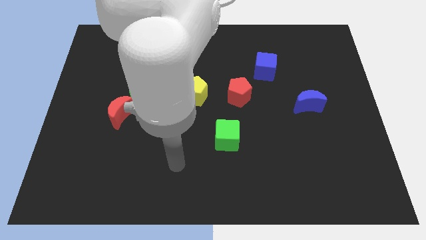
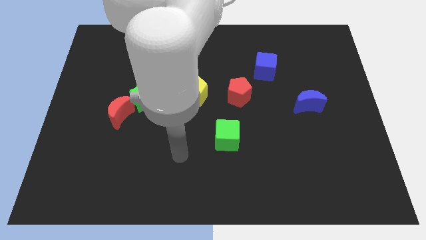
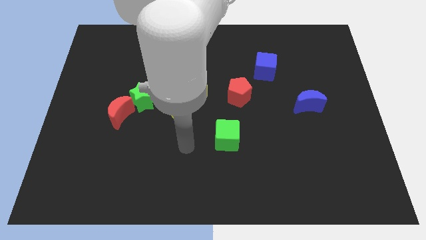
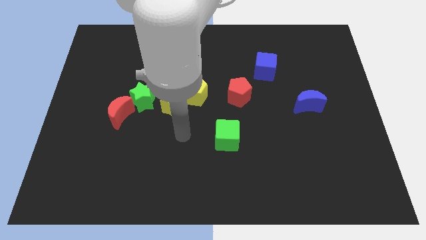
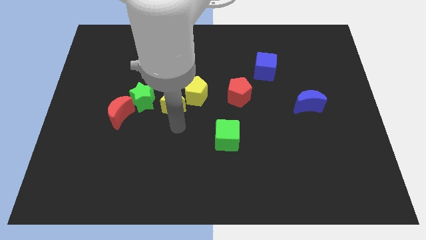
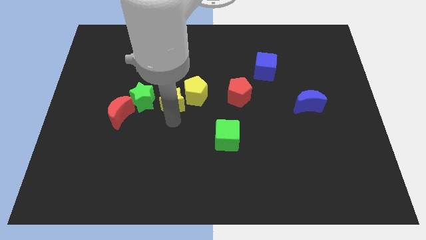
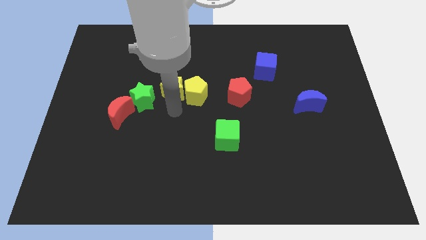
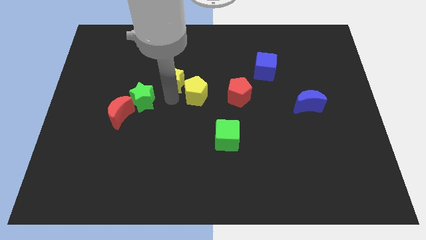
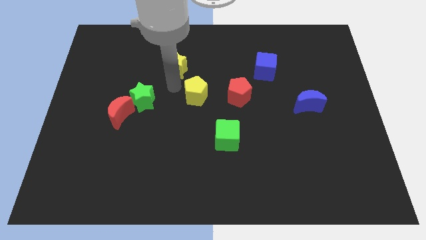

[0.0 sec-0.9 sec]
separate the yellow pentagon from the yellow star

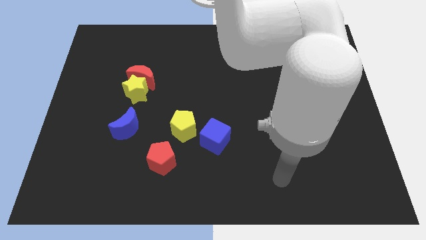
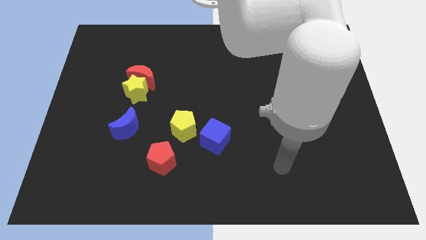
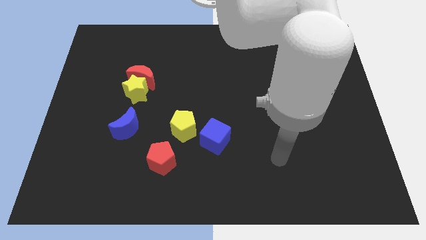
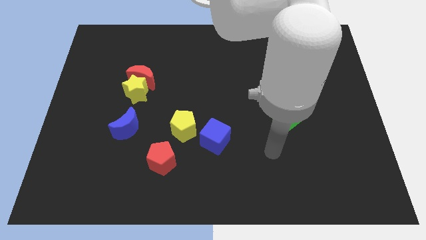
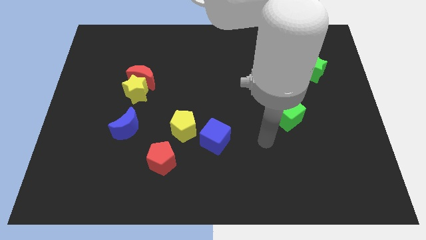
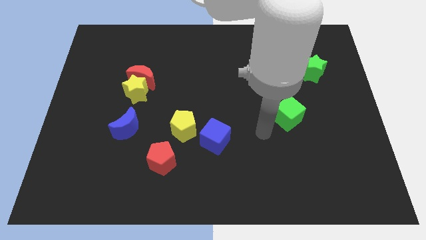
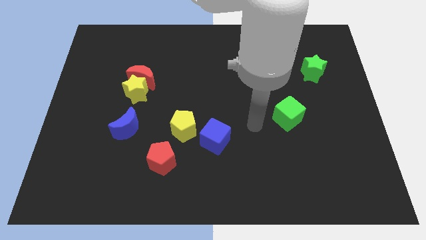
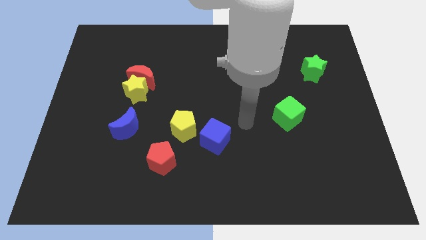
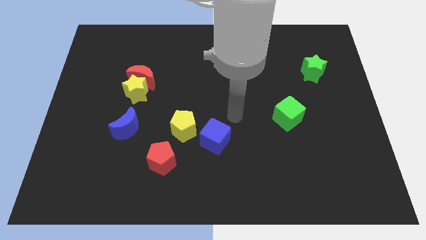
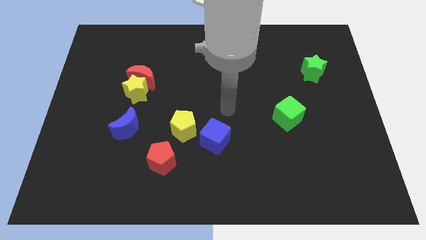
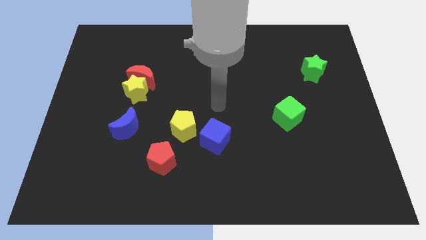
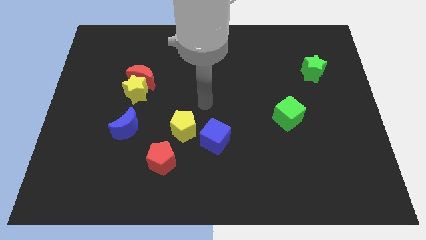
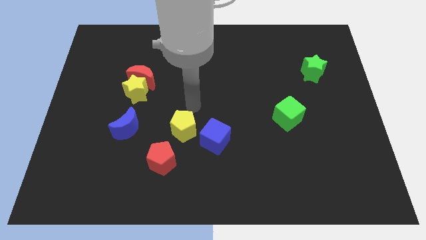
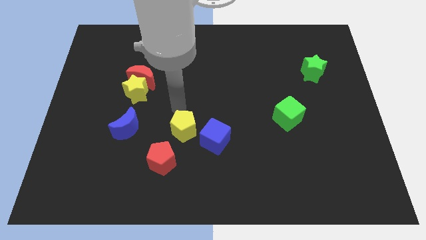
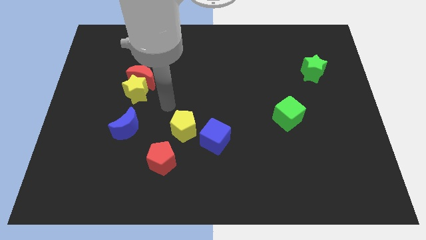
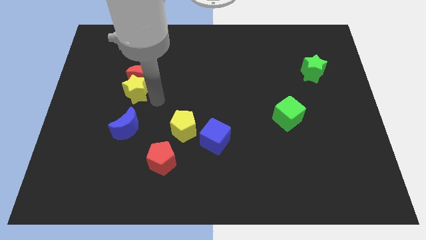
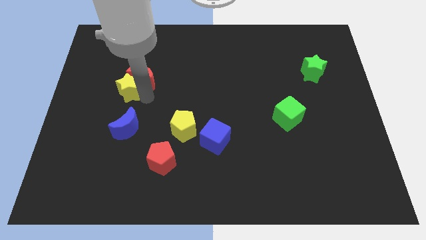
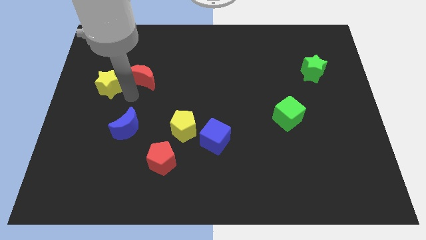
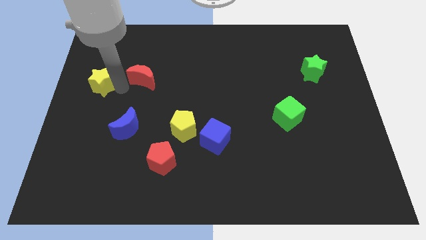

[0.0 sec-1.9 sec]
pull the red moon apart from the yellow star

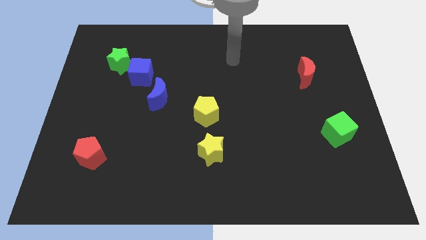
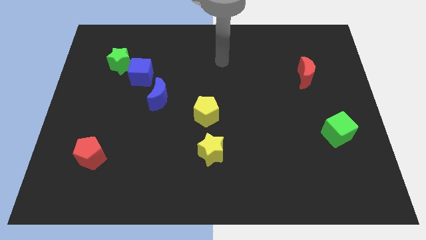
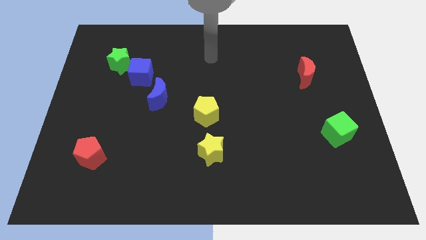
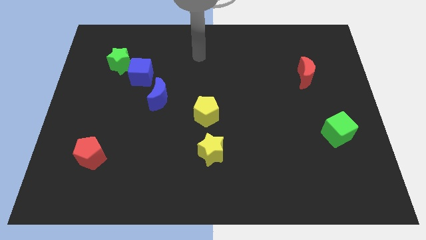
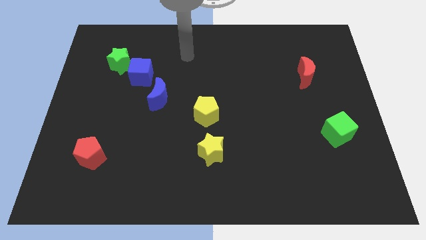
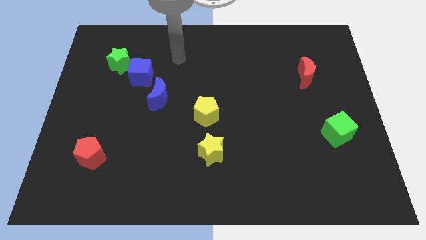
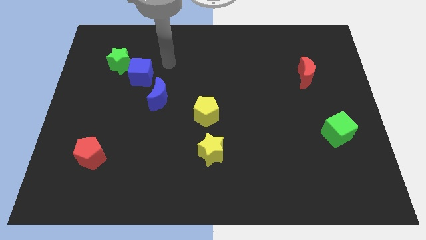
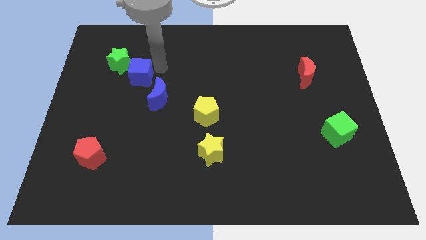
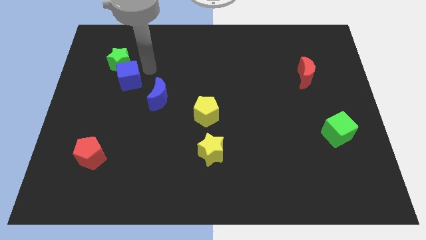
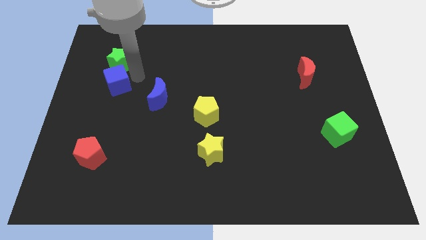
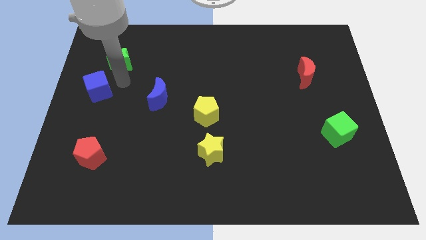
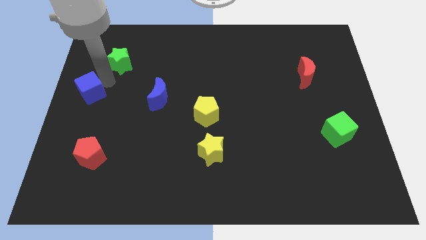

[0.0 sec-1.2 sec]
move the green star away from the blue cube

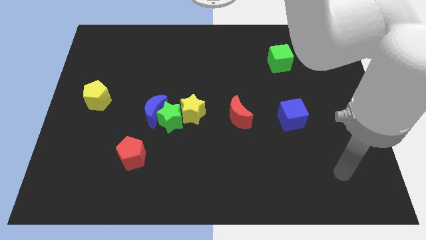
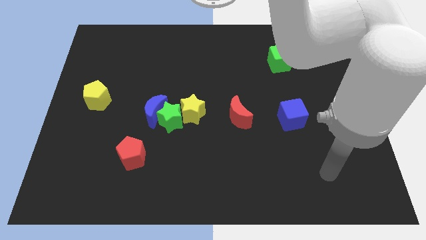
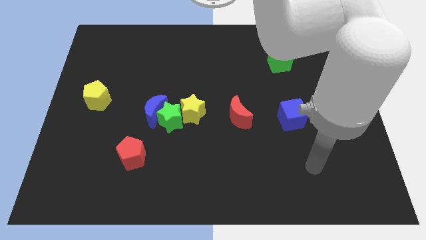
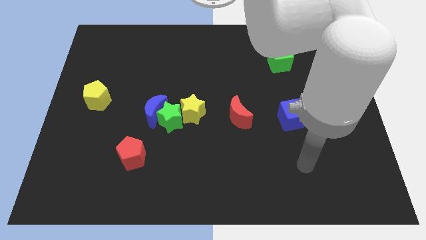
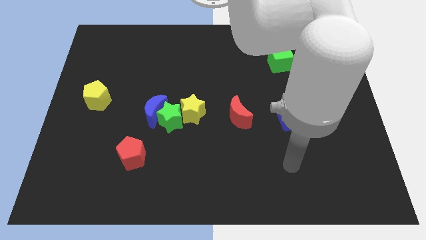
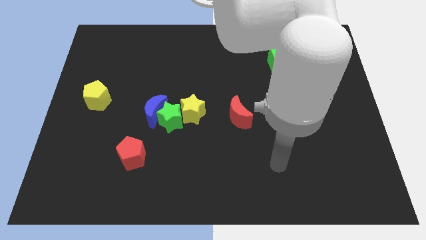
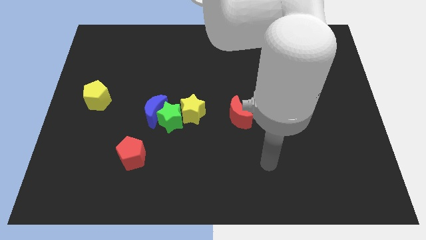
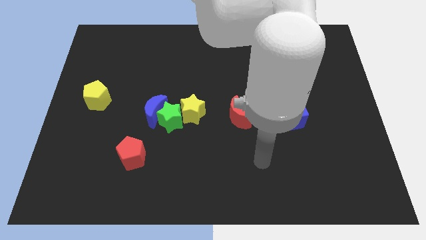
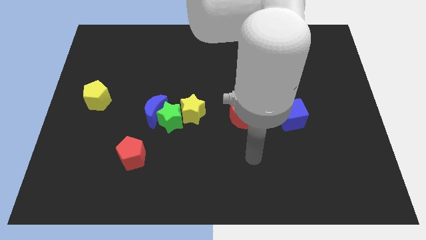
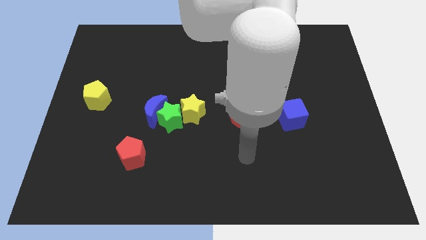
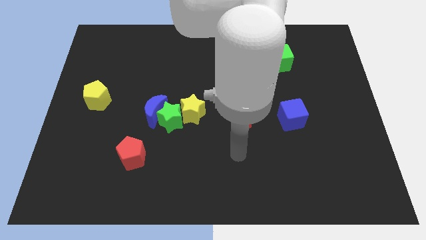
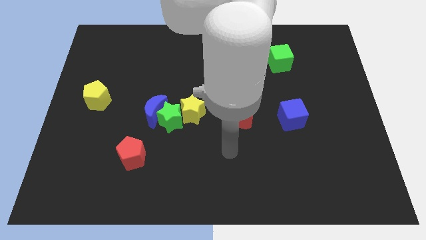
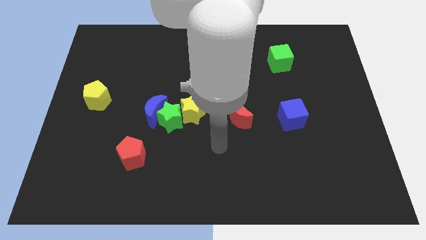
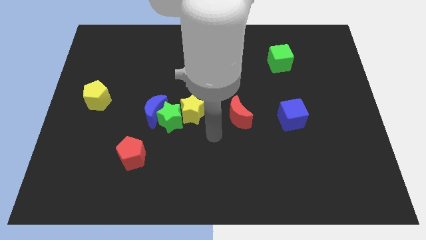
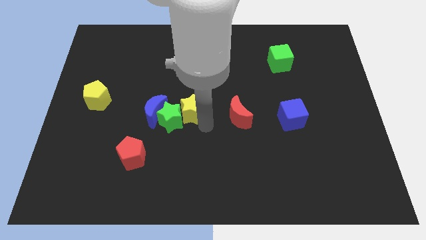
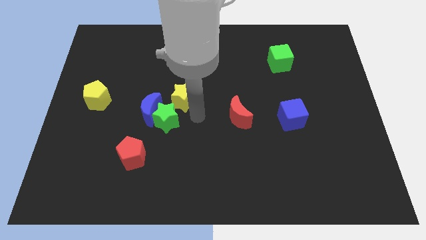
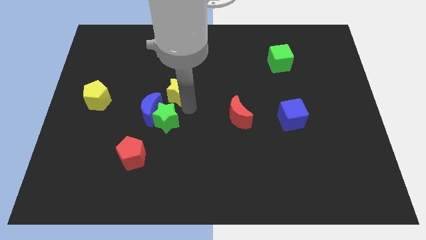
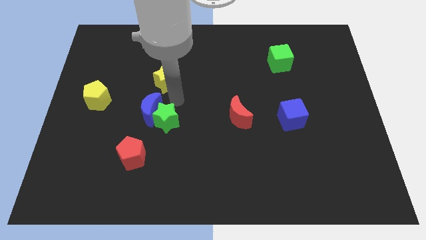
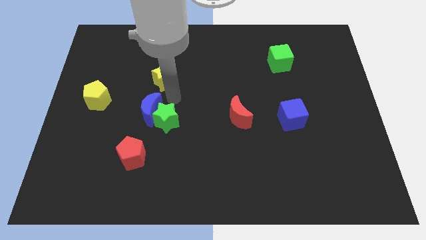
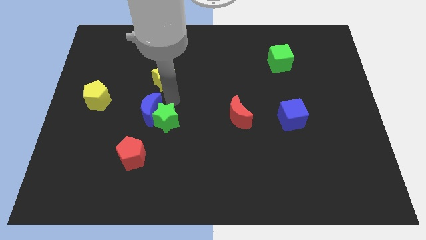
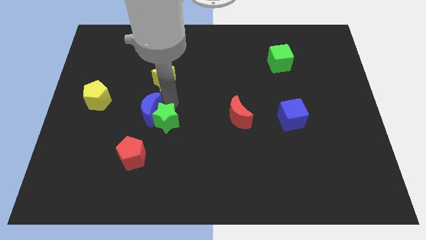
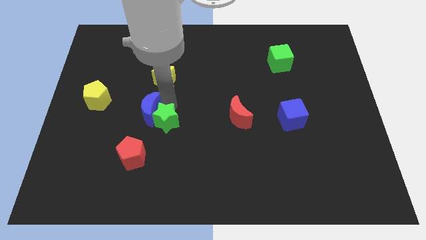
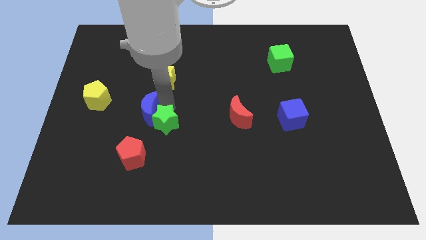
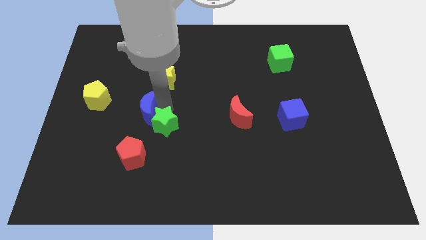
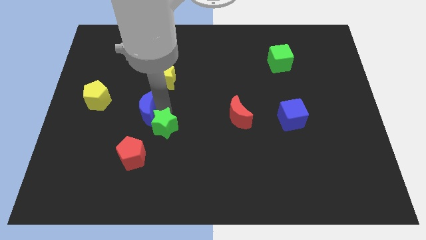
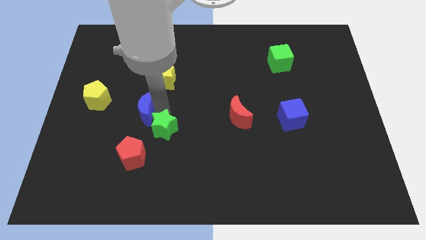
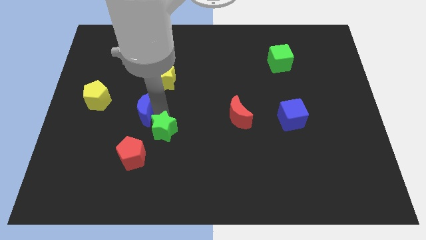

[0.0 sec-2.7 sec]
pull the green star apart from the blue moon and yellow star

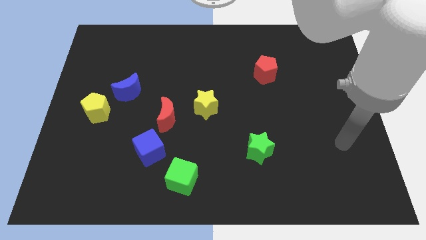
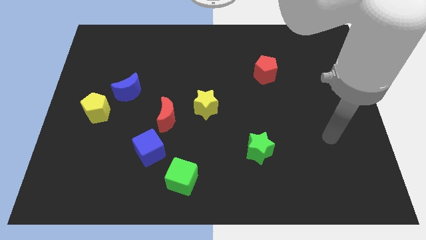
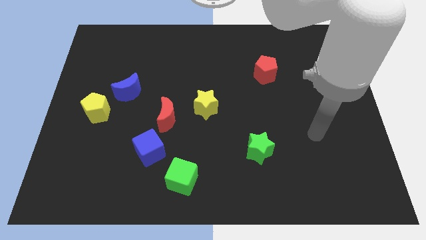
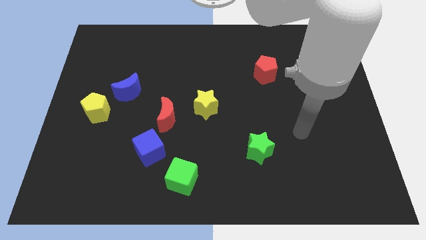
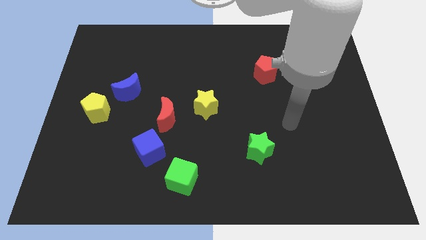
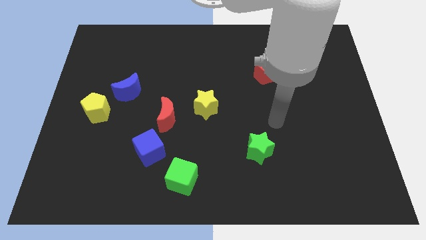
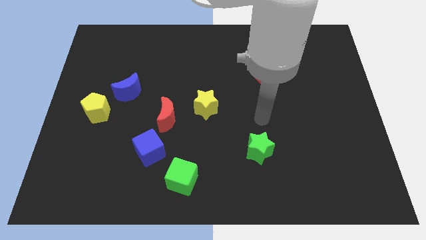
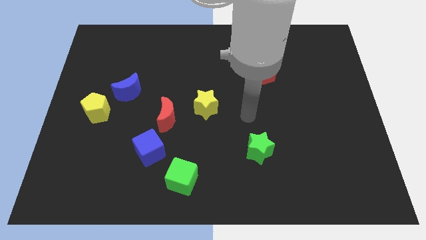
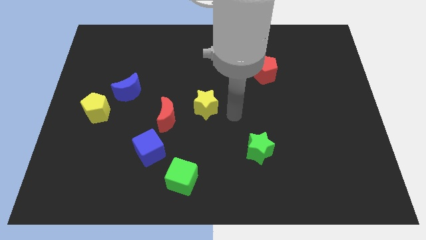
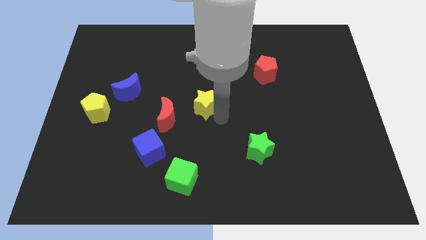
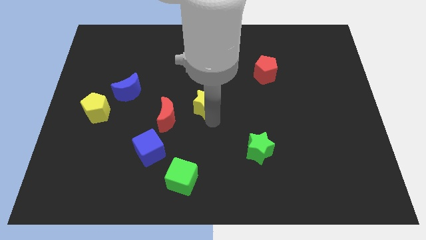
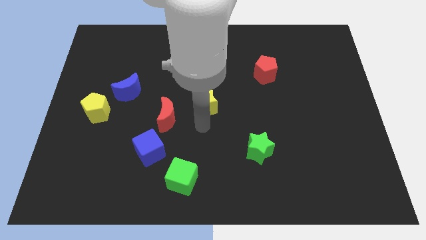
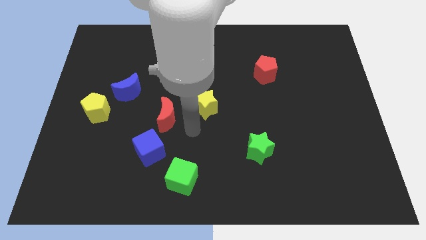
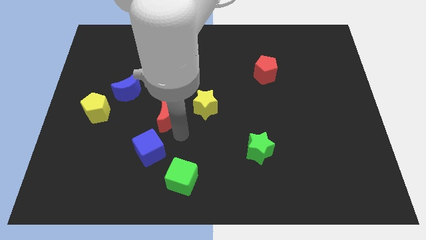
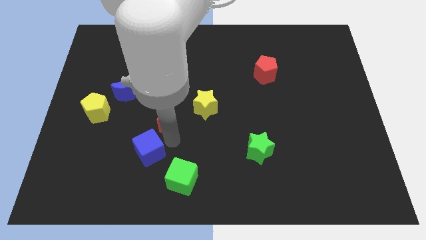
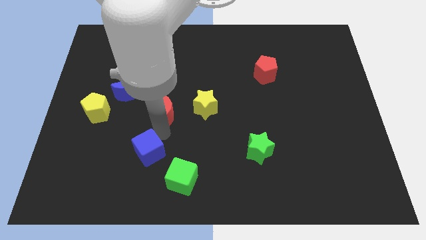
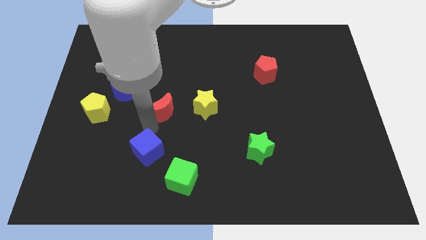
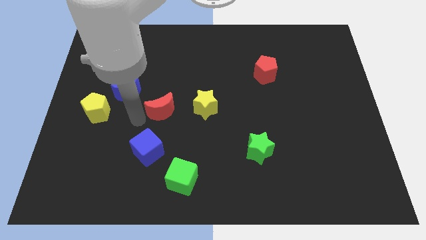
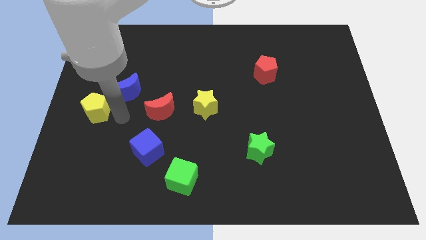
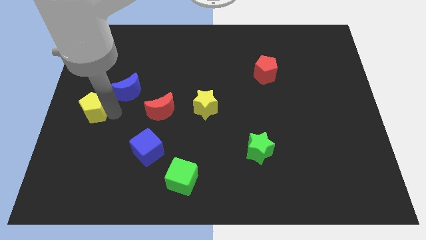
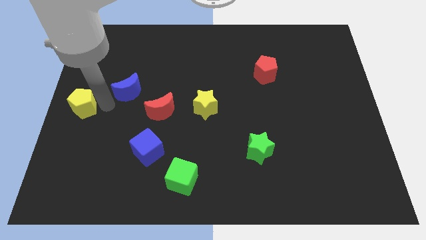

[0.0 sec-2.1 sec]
separate the blue moon from the yellow pentagon

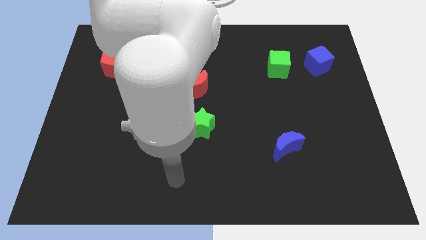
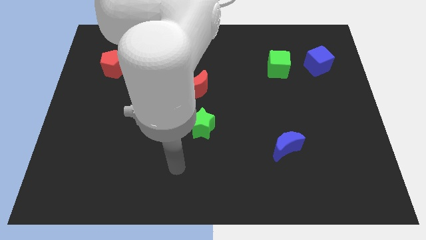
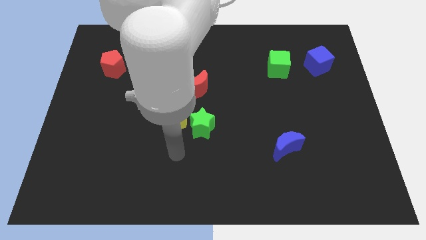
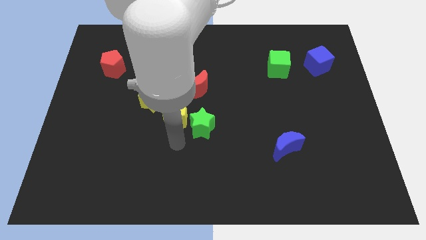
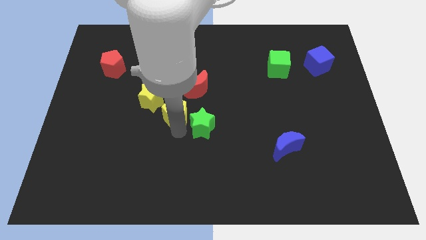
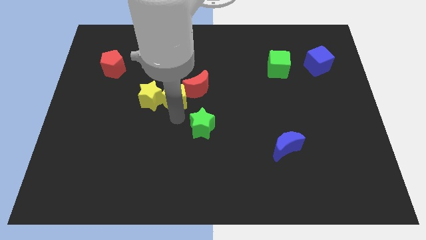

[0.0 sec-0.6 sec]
pull the green star apart from the yellow pentagon
